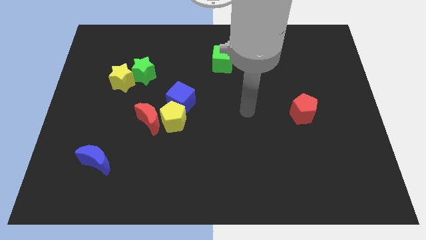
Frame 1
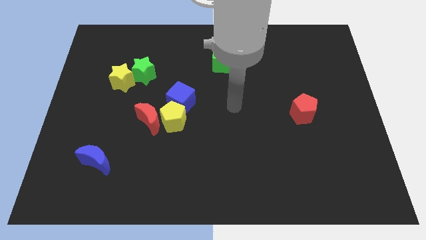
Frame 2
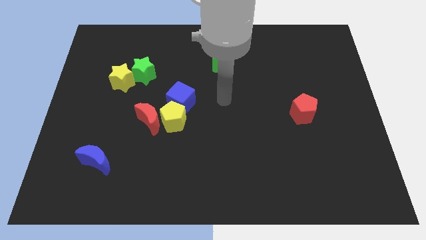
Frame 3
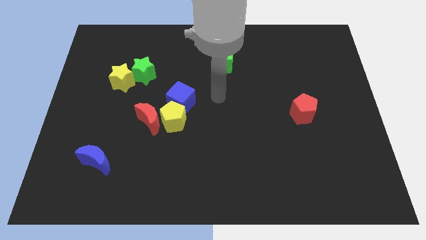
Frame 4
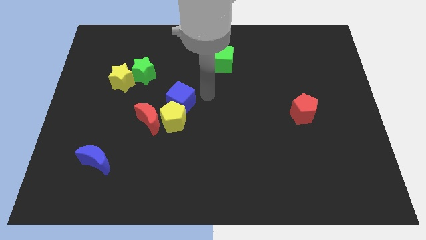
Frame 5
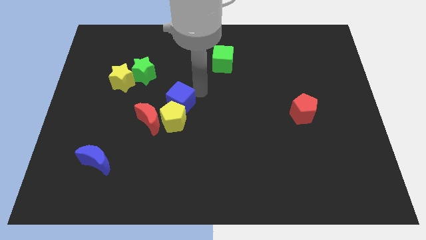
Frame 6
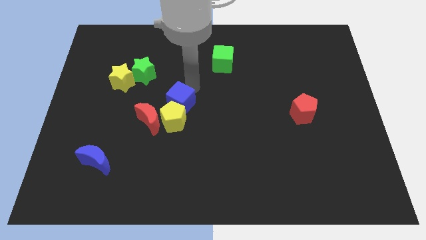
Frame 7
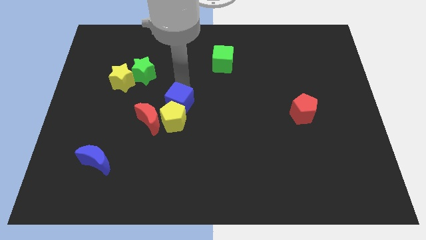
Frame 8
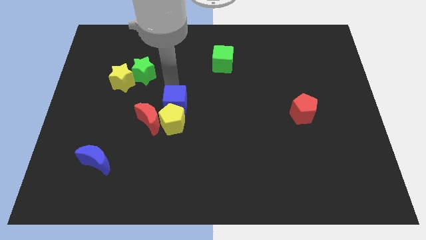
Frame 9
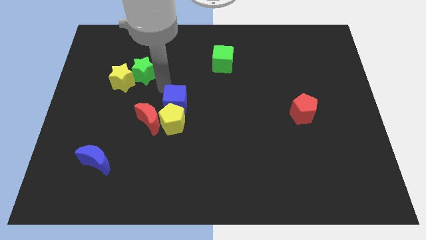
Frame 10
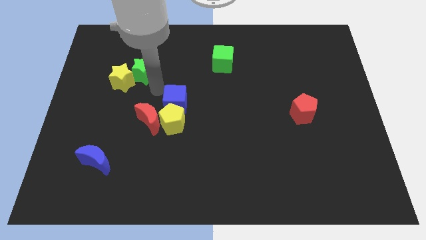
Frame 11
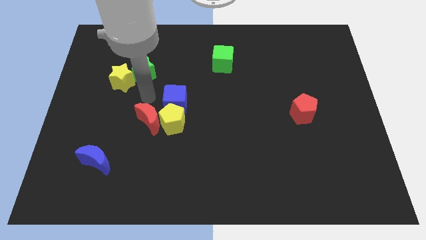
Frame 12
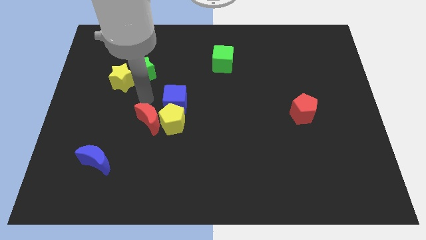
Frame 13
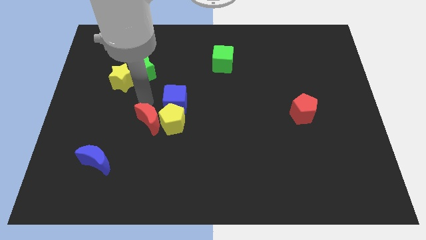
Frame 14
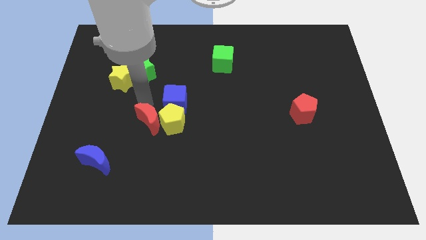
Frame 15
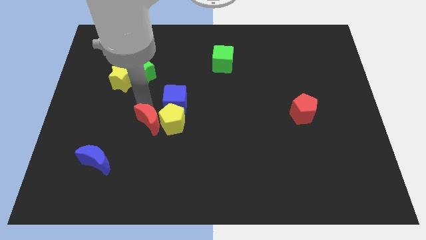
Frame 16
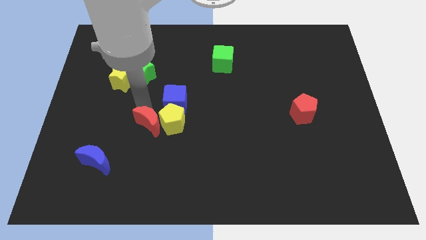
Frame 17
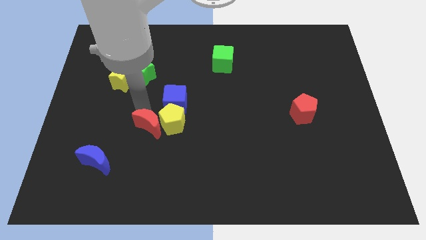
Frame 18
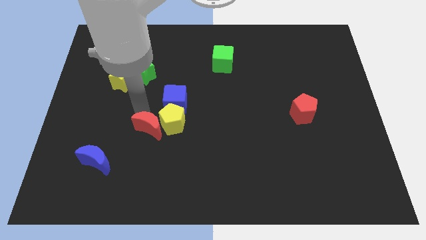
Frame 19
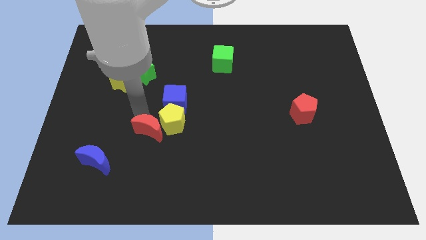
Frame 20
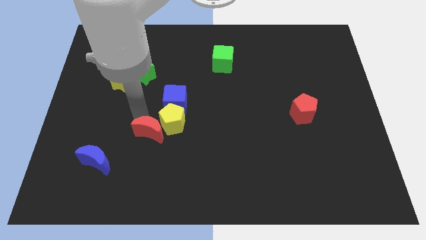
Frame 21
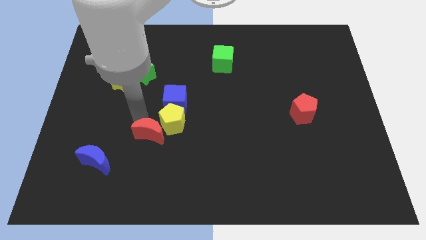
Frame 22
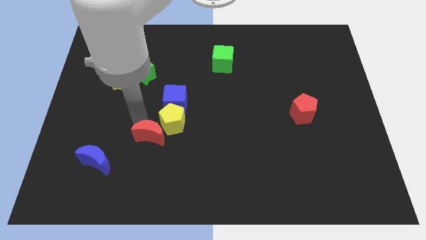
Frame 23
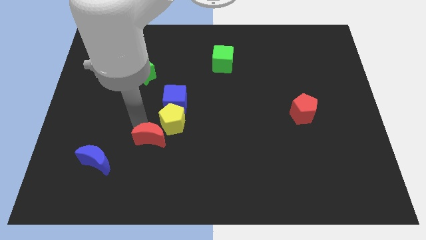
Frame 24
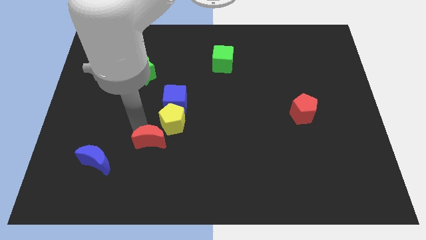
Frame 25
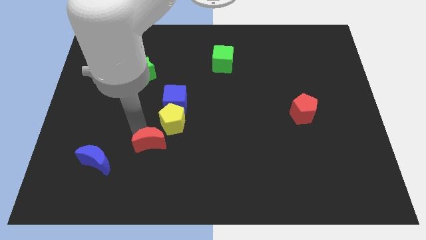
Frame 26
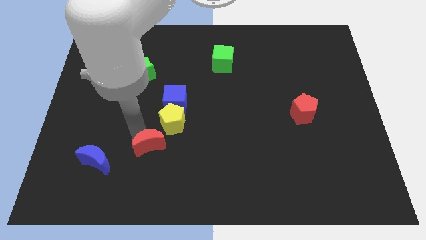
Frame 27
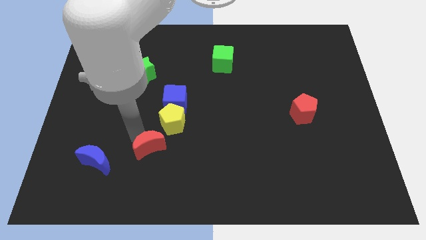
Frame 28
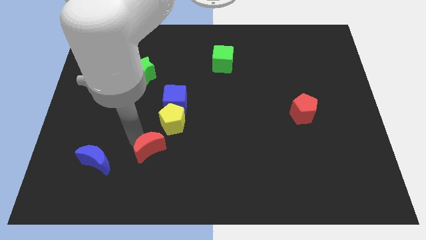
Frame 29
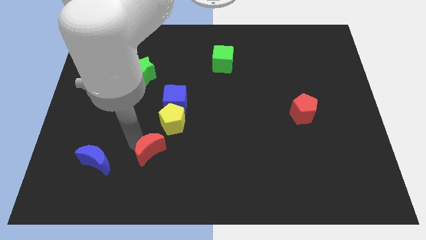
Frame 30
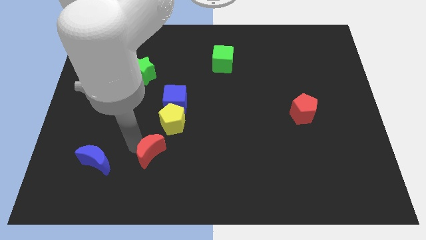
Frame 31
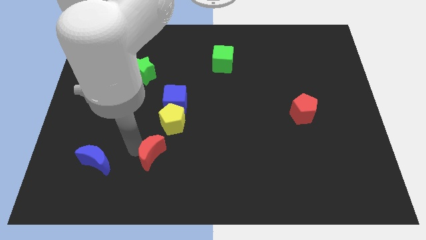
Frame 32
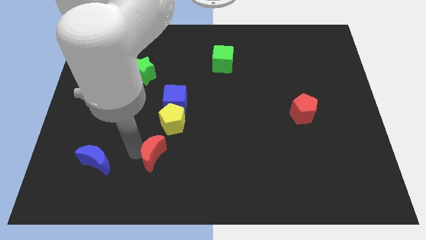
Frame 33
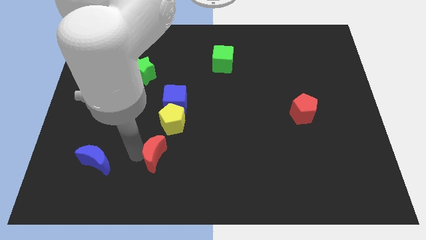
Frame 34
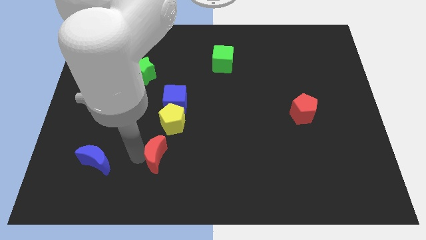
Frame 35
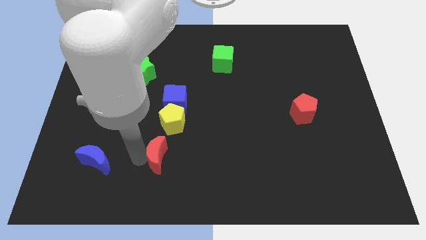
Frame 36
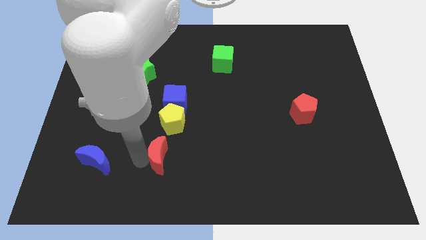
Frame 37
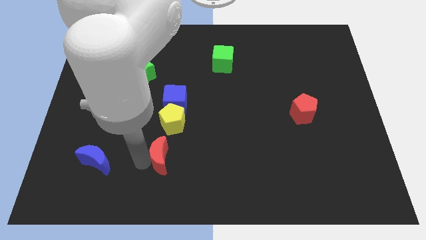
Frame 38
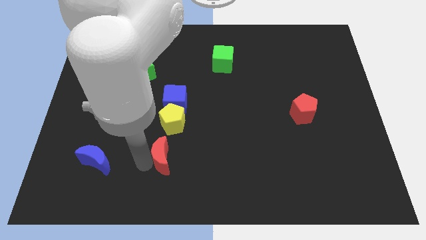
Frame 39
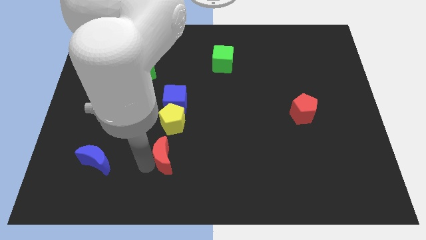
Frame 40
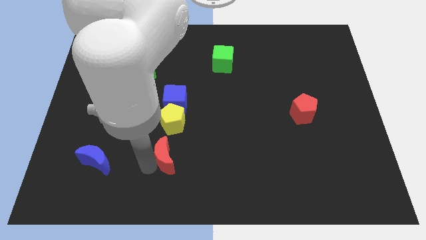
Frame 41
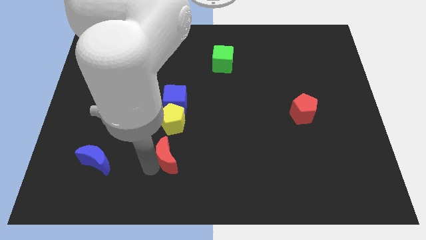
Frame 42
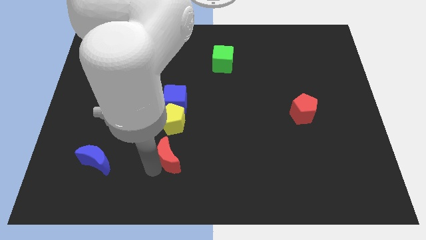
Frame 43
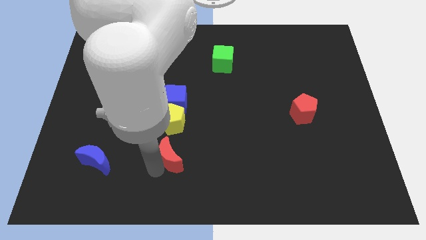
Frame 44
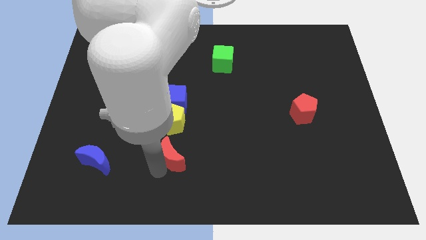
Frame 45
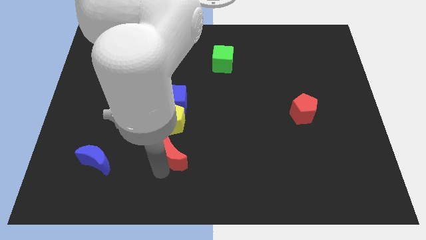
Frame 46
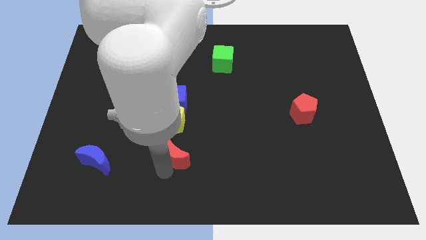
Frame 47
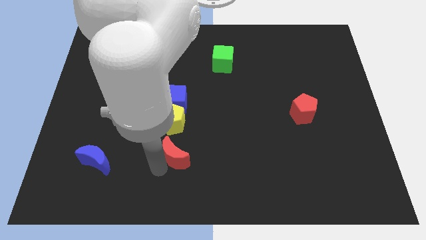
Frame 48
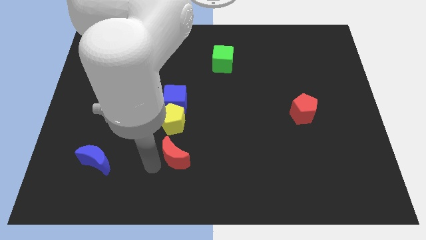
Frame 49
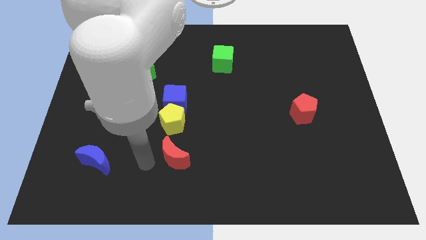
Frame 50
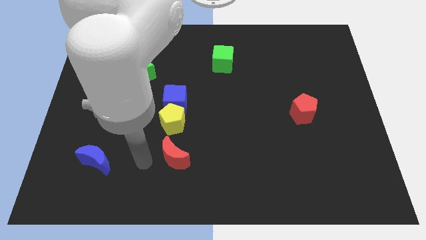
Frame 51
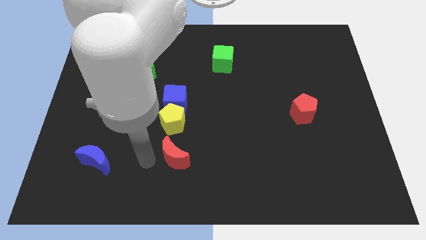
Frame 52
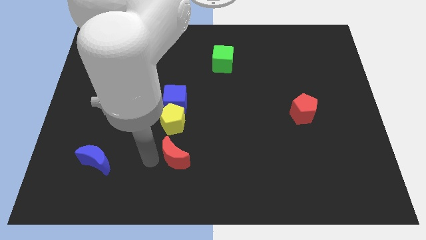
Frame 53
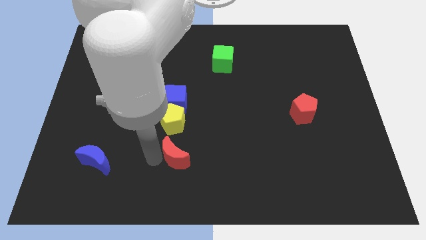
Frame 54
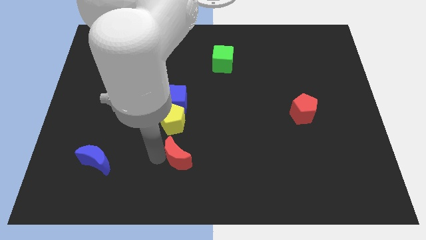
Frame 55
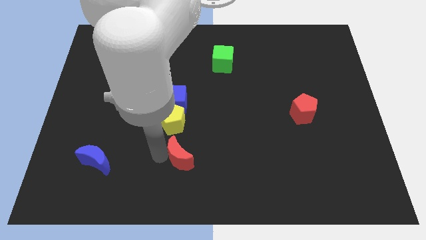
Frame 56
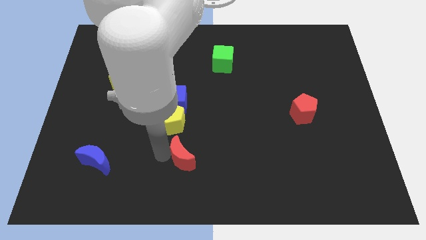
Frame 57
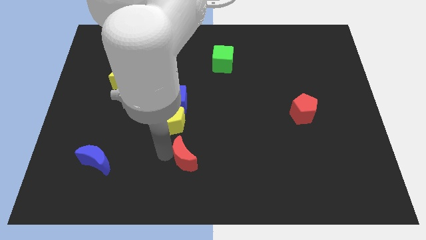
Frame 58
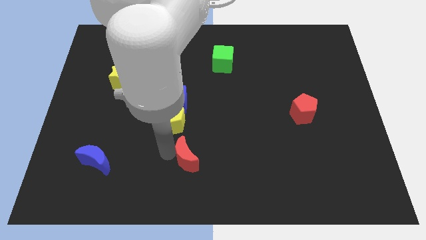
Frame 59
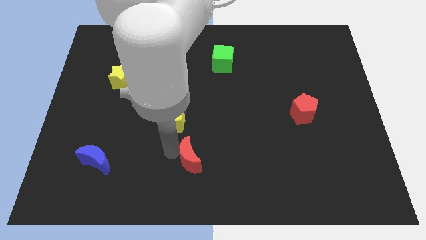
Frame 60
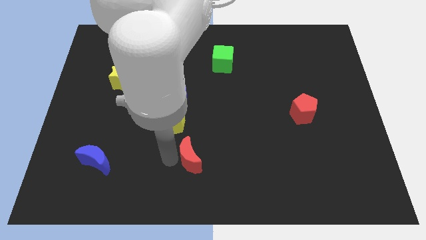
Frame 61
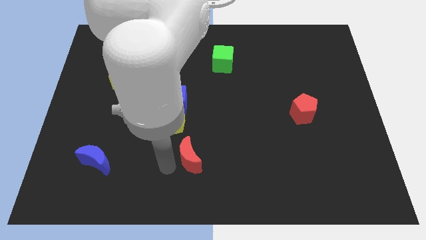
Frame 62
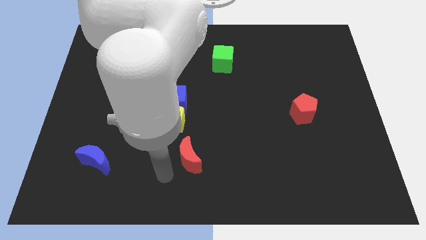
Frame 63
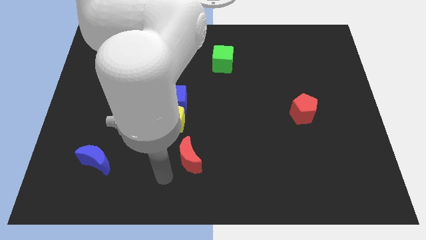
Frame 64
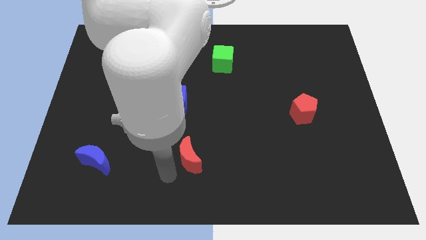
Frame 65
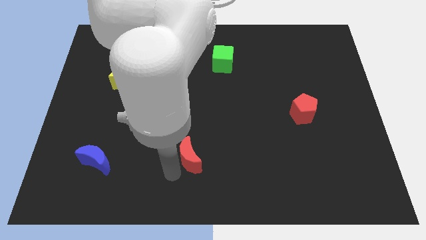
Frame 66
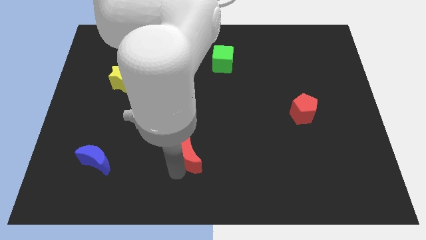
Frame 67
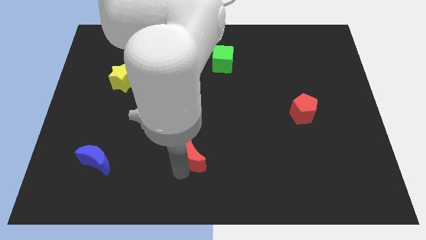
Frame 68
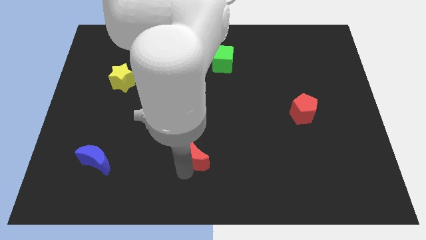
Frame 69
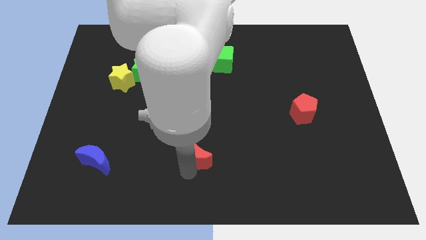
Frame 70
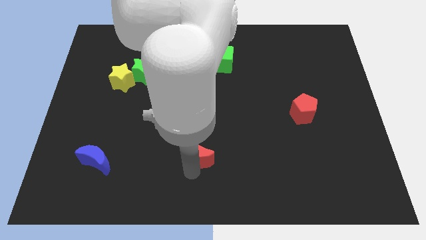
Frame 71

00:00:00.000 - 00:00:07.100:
move the red moon right slightly

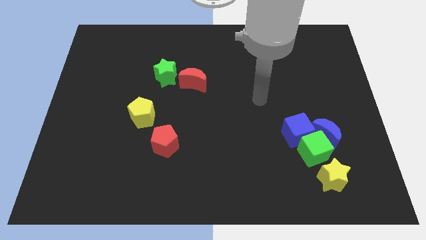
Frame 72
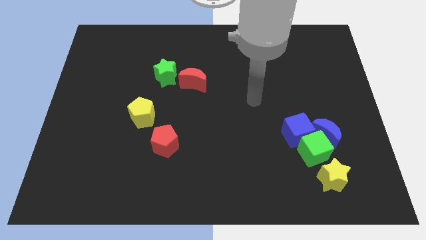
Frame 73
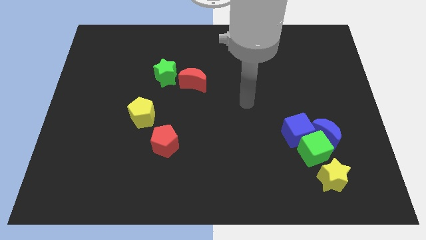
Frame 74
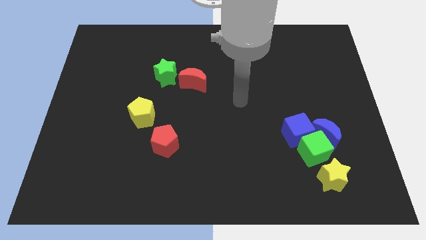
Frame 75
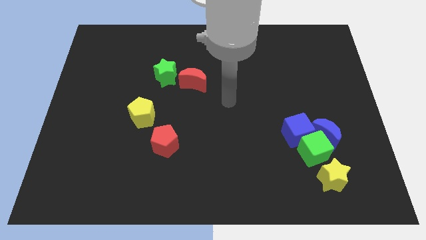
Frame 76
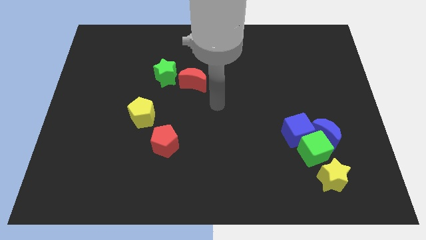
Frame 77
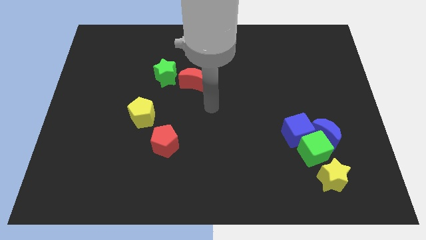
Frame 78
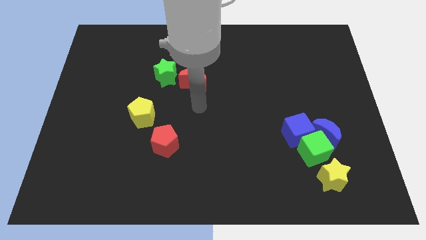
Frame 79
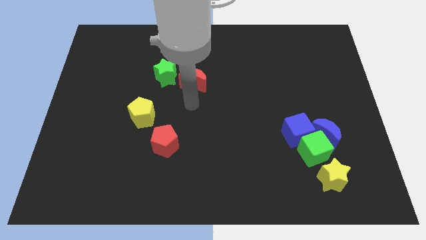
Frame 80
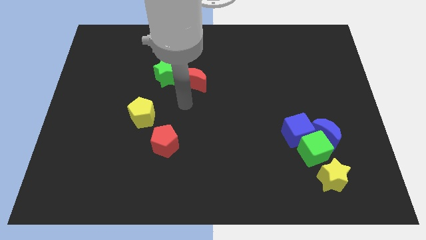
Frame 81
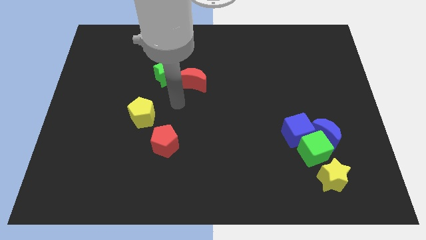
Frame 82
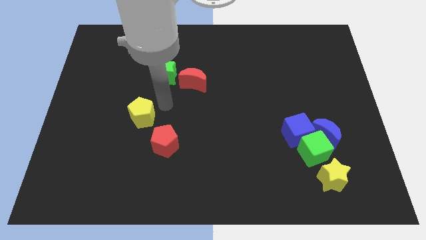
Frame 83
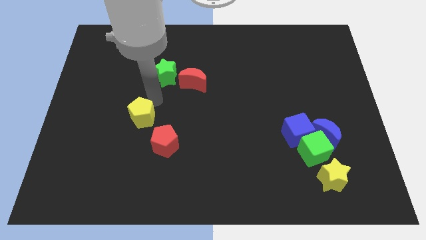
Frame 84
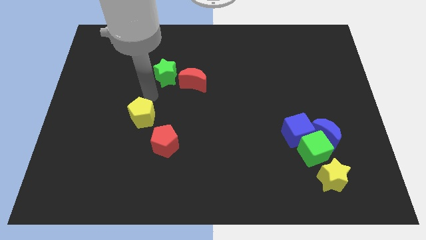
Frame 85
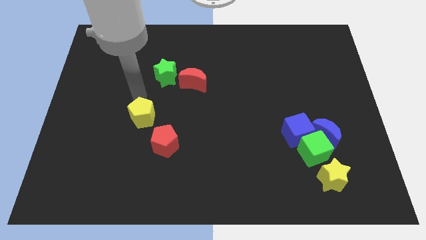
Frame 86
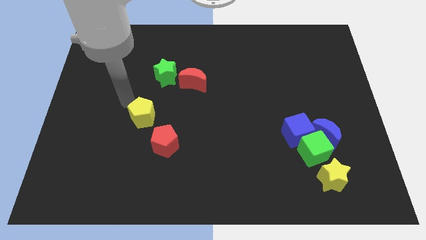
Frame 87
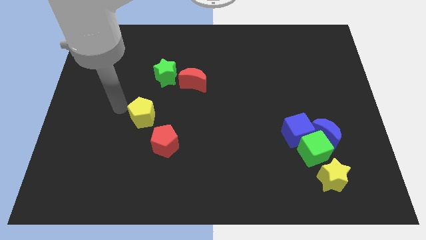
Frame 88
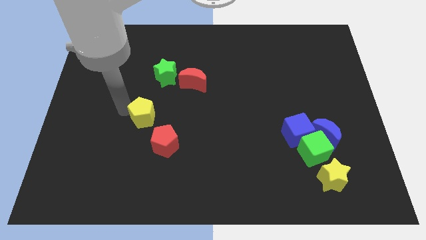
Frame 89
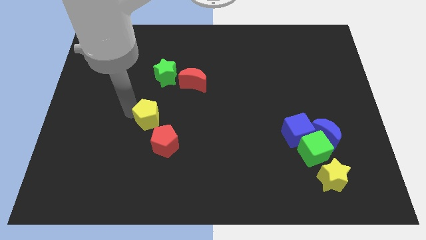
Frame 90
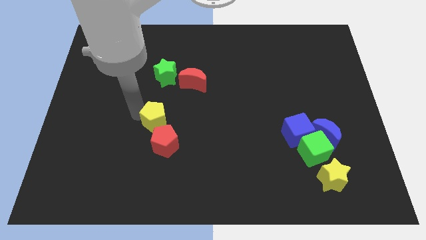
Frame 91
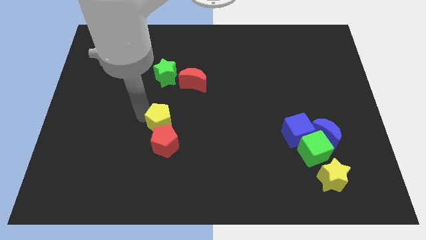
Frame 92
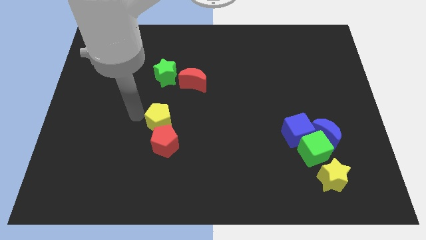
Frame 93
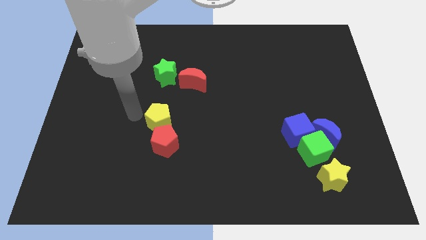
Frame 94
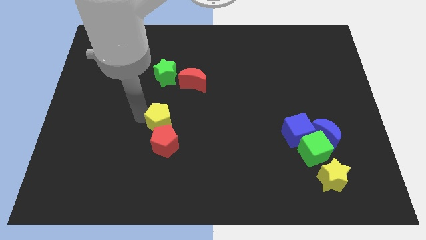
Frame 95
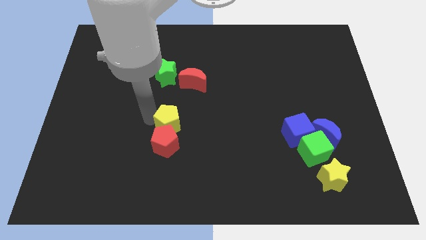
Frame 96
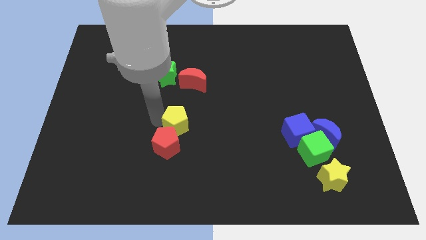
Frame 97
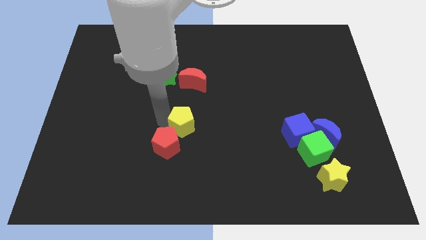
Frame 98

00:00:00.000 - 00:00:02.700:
move the yellow pentagon a bit down and then to the right
